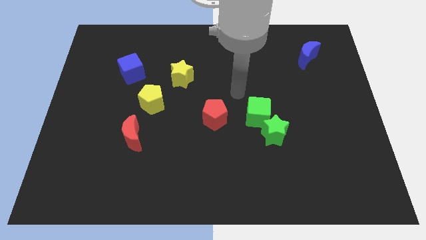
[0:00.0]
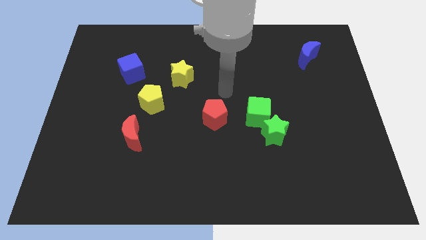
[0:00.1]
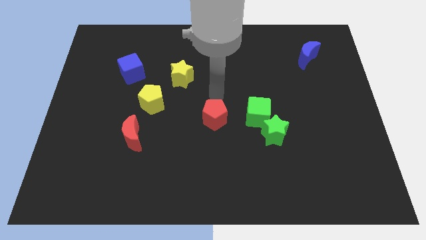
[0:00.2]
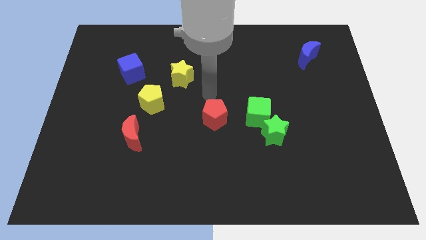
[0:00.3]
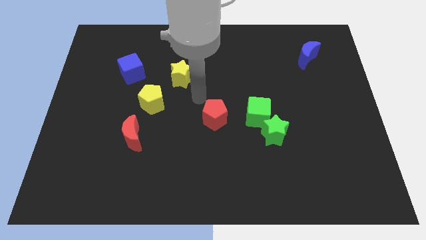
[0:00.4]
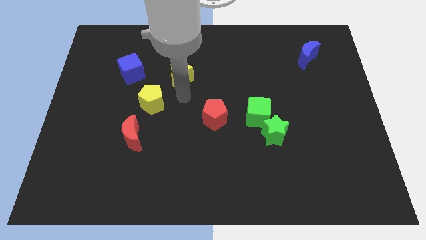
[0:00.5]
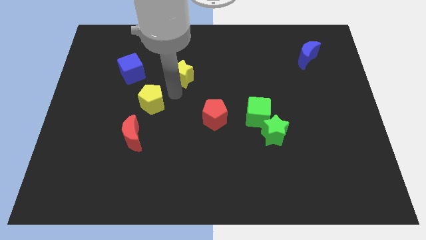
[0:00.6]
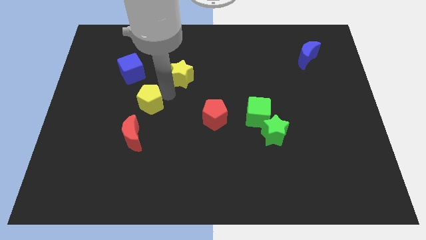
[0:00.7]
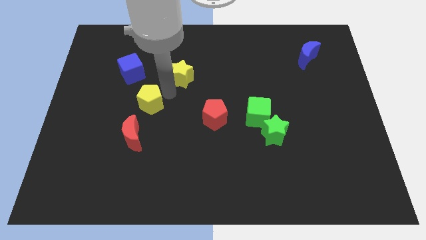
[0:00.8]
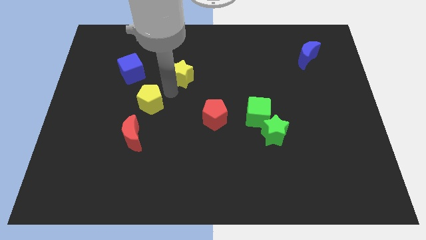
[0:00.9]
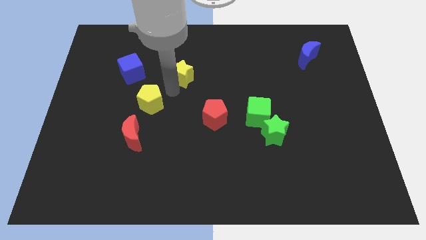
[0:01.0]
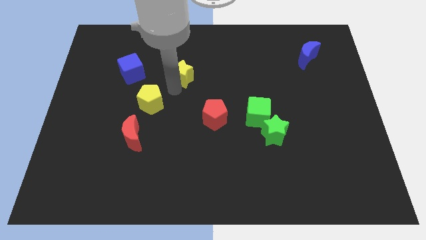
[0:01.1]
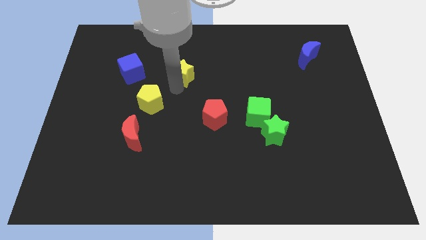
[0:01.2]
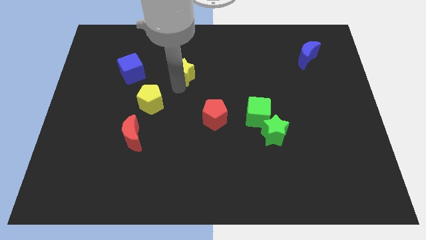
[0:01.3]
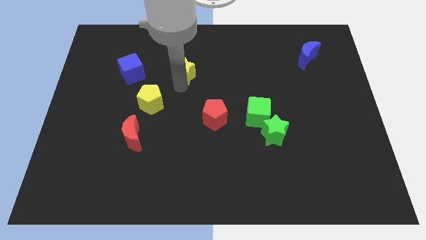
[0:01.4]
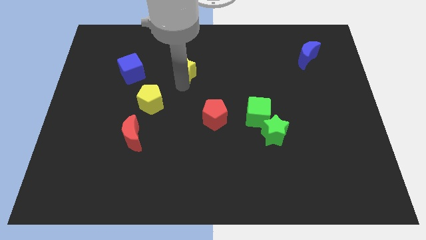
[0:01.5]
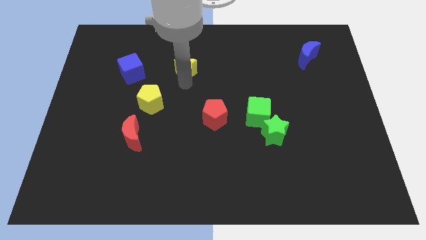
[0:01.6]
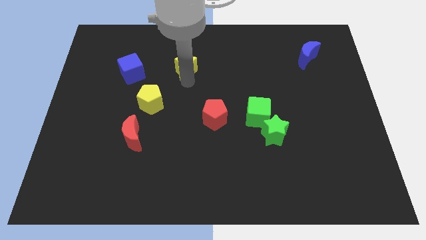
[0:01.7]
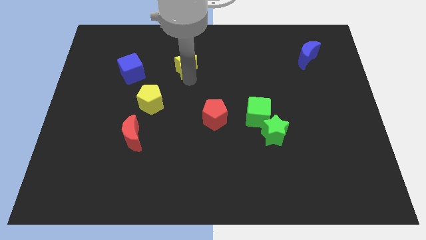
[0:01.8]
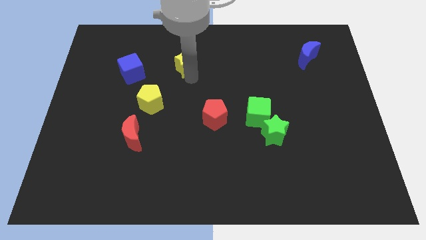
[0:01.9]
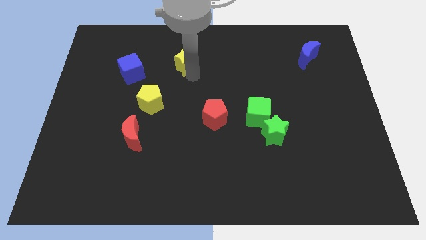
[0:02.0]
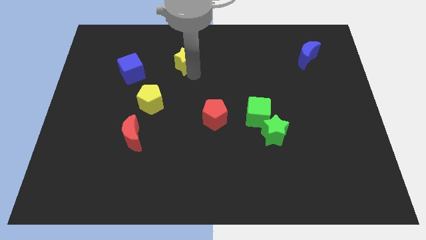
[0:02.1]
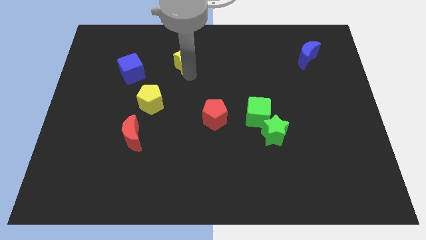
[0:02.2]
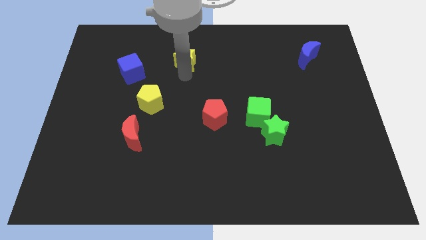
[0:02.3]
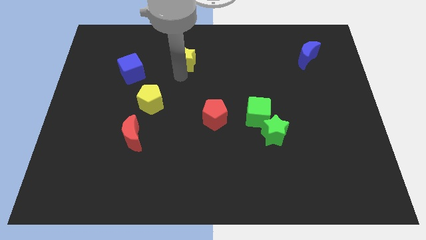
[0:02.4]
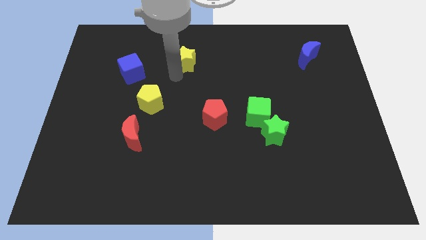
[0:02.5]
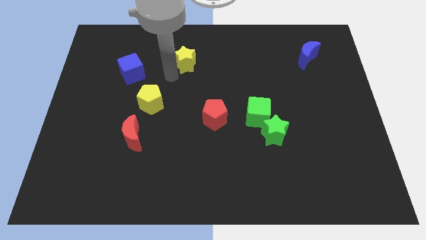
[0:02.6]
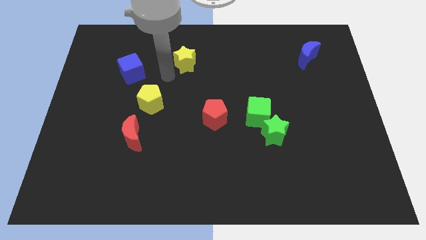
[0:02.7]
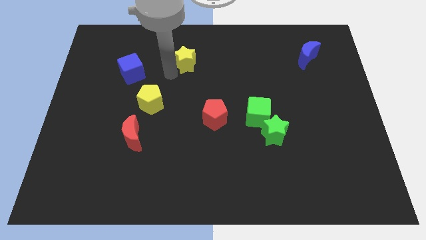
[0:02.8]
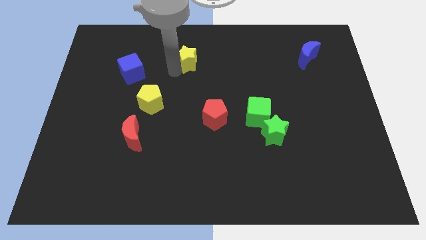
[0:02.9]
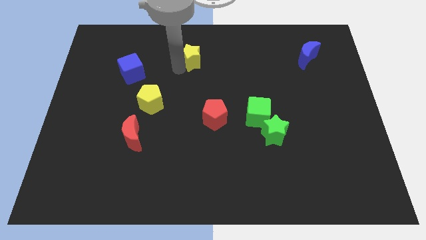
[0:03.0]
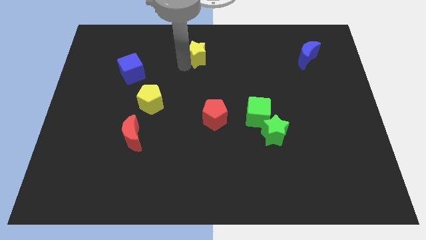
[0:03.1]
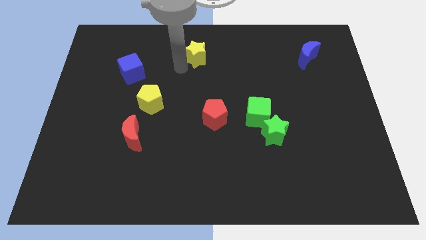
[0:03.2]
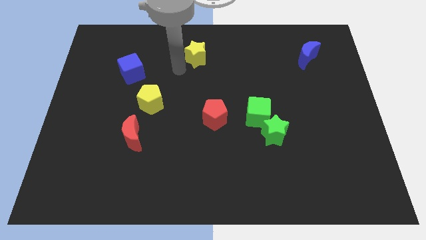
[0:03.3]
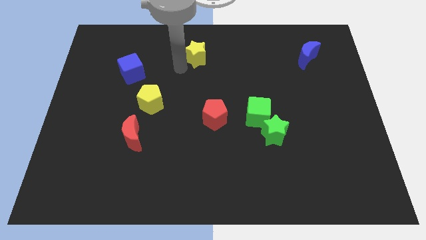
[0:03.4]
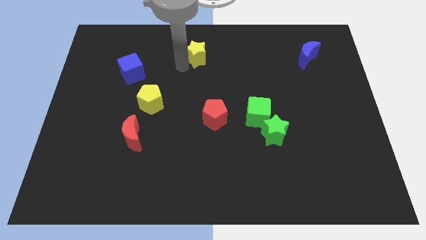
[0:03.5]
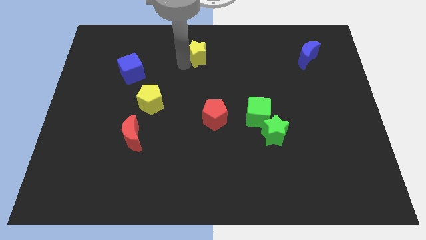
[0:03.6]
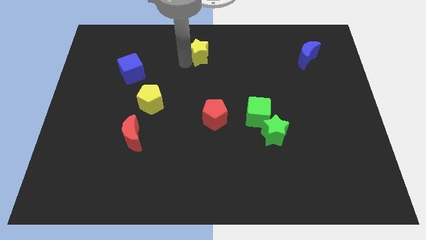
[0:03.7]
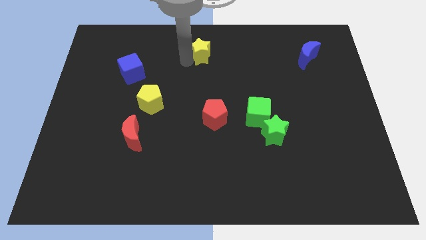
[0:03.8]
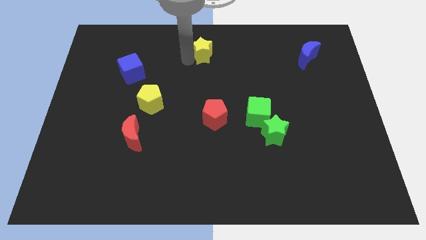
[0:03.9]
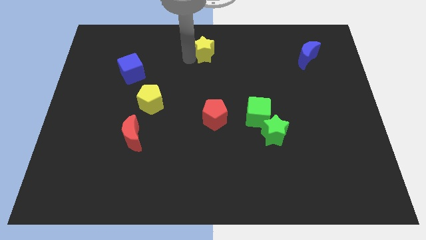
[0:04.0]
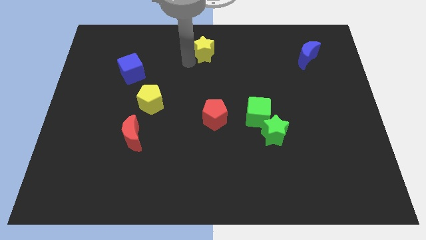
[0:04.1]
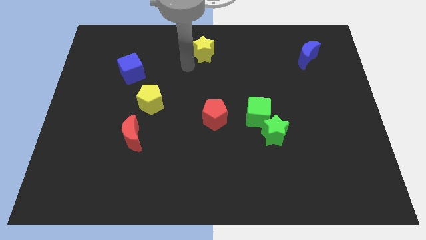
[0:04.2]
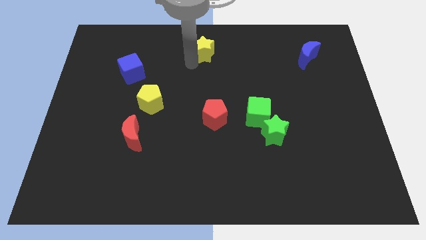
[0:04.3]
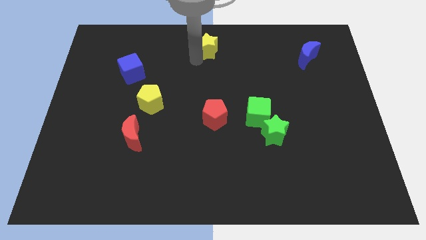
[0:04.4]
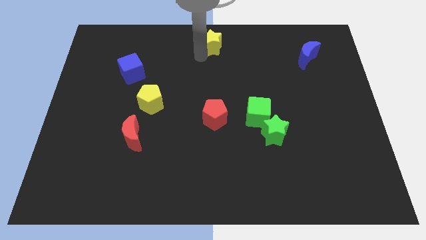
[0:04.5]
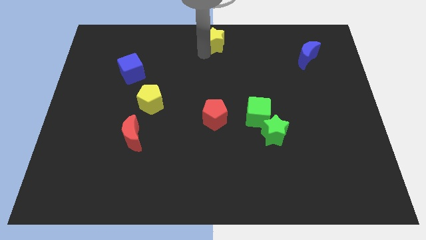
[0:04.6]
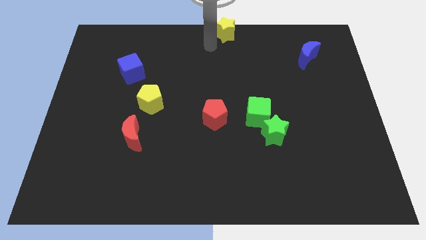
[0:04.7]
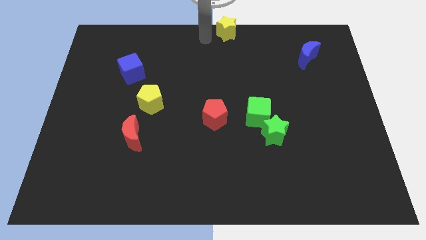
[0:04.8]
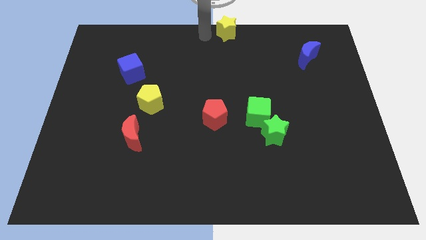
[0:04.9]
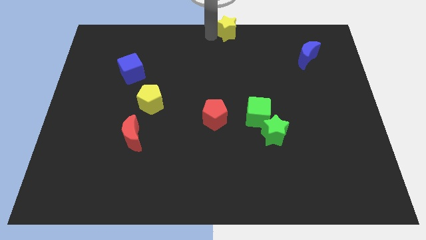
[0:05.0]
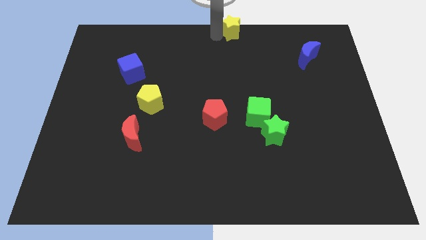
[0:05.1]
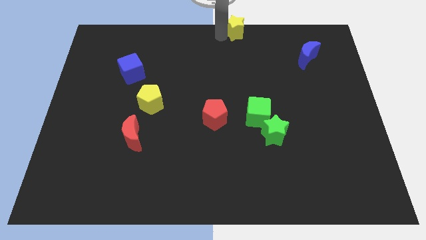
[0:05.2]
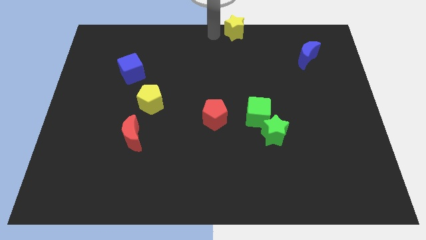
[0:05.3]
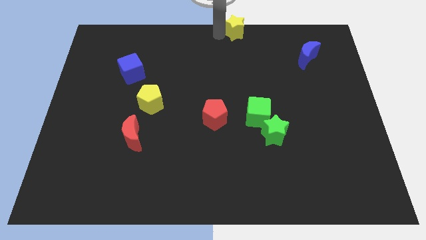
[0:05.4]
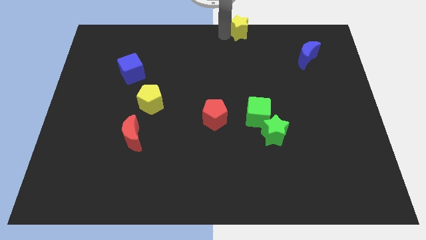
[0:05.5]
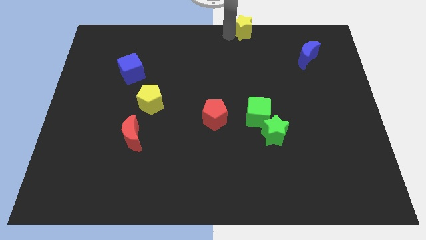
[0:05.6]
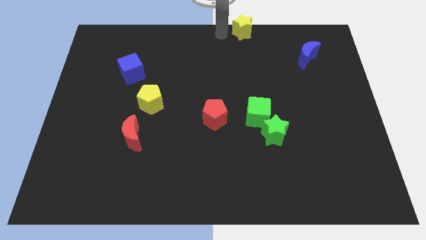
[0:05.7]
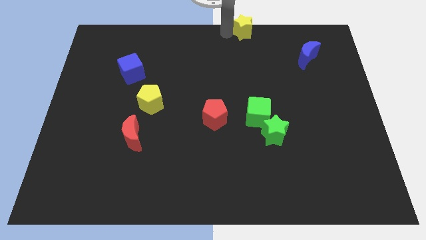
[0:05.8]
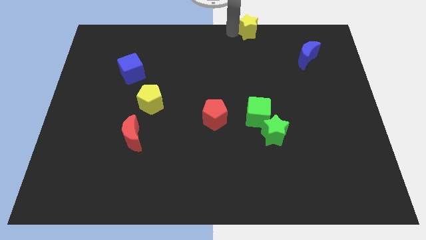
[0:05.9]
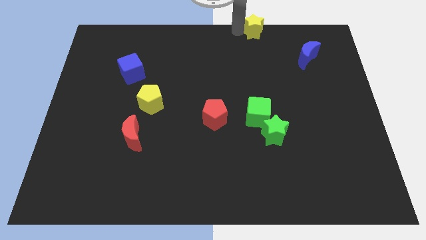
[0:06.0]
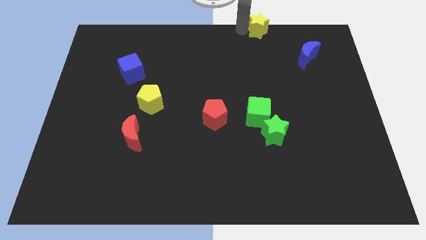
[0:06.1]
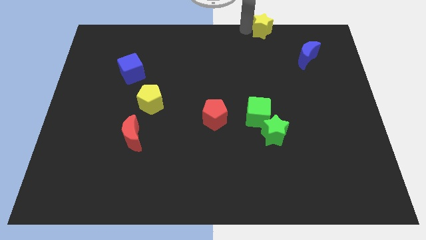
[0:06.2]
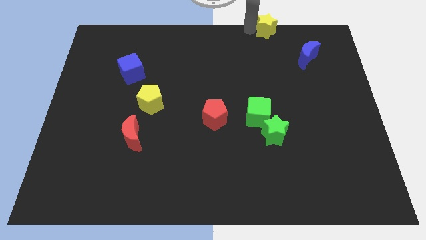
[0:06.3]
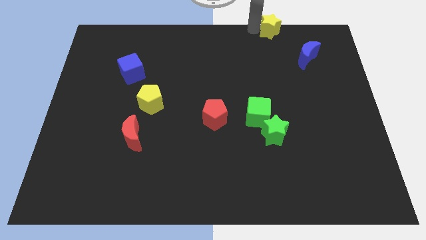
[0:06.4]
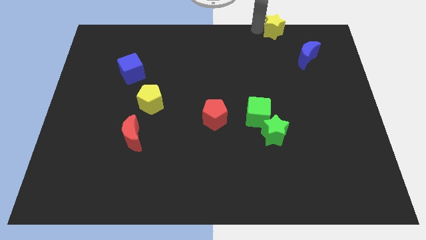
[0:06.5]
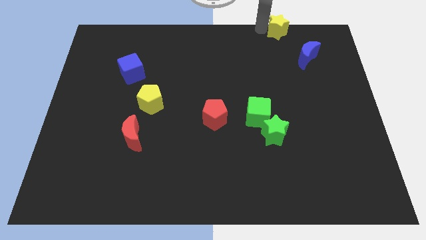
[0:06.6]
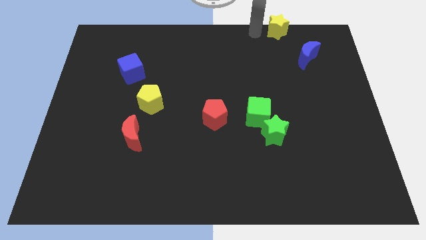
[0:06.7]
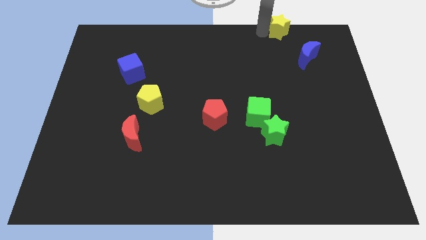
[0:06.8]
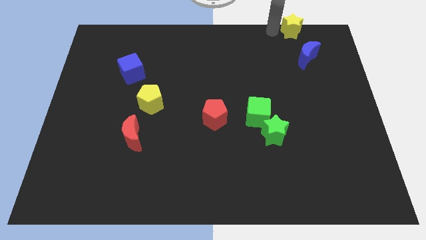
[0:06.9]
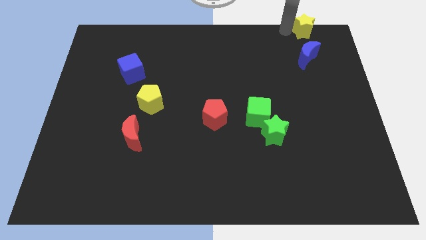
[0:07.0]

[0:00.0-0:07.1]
push the yellow star to the upper right corner

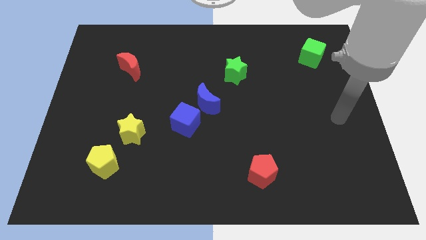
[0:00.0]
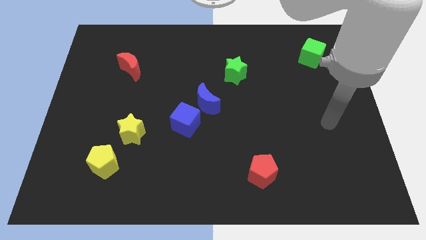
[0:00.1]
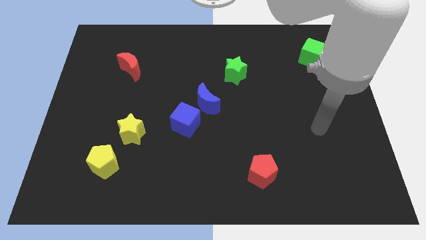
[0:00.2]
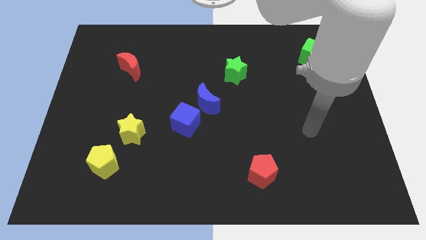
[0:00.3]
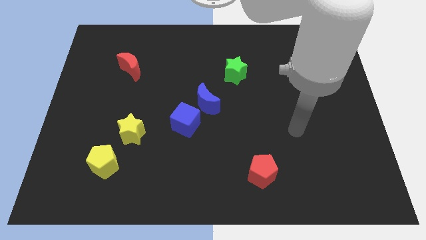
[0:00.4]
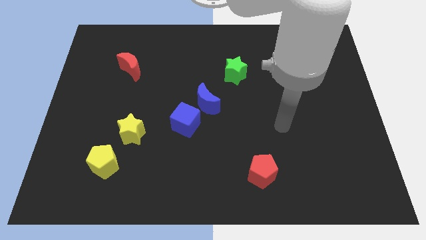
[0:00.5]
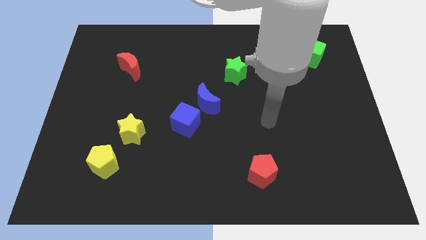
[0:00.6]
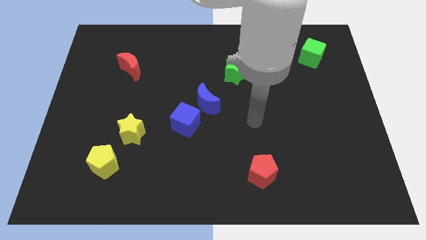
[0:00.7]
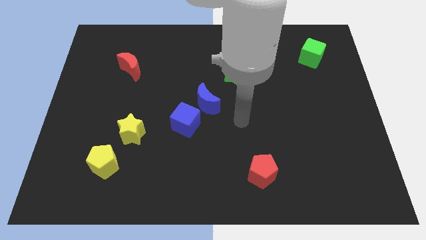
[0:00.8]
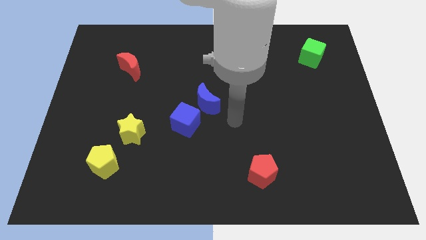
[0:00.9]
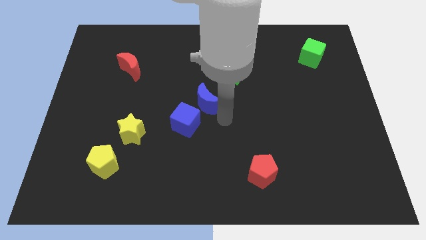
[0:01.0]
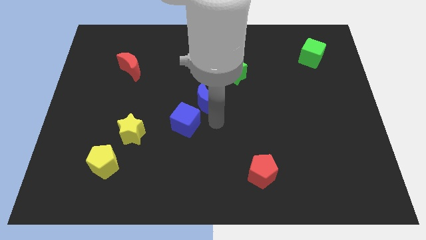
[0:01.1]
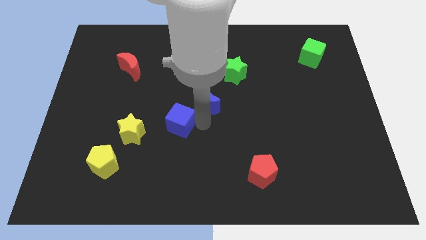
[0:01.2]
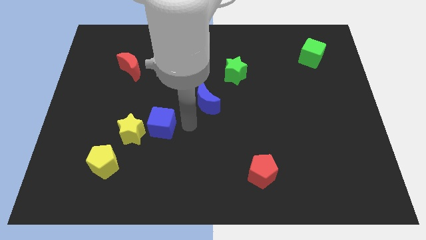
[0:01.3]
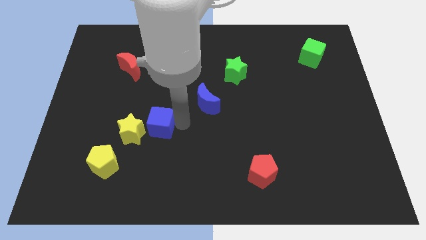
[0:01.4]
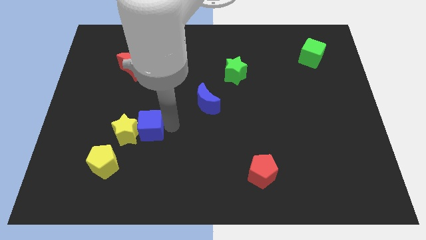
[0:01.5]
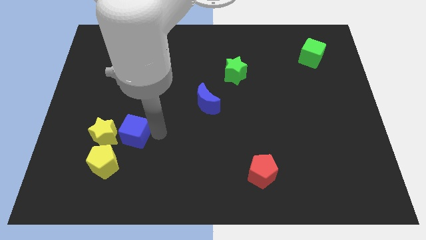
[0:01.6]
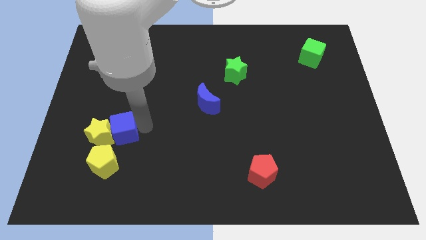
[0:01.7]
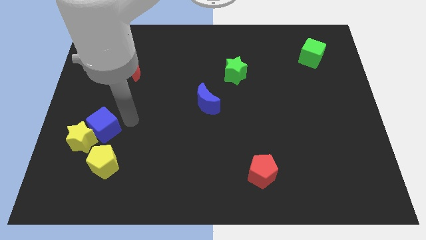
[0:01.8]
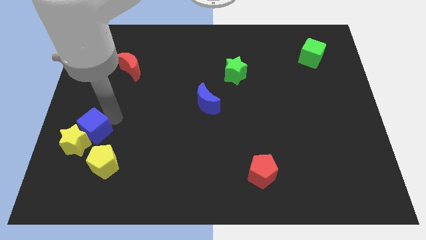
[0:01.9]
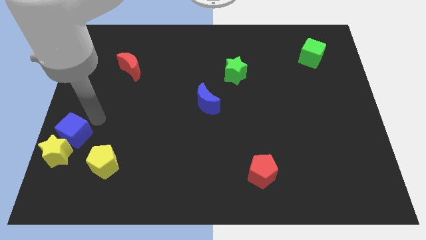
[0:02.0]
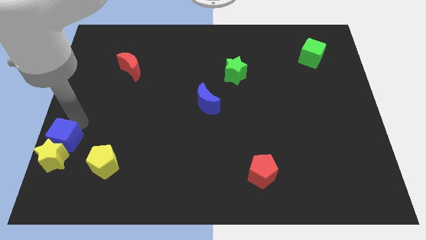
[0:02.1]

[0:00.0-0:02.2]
push the yellow star to the bottom left corner
